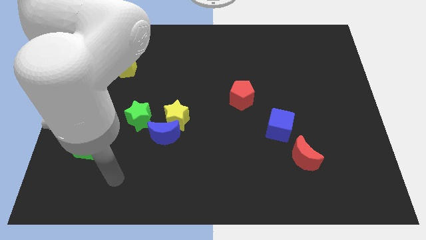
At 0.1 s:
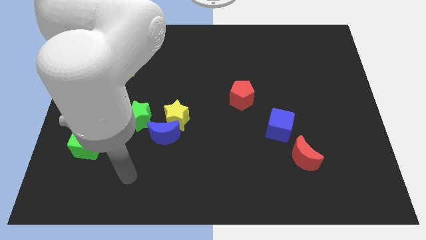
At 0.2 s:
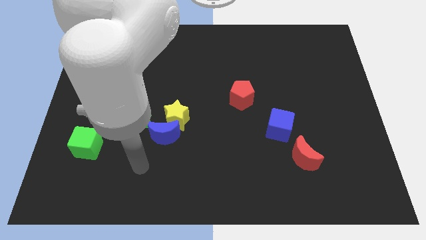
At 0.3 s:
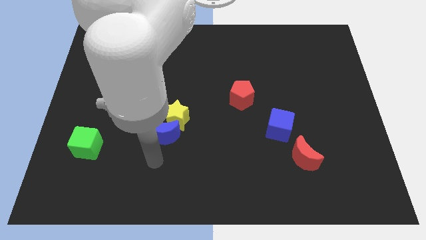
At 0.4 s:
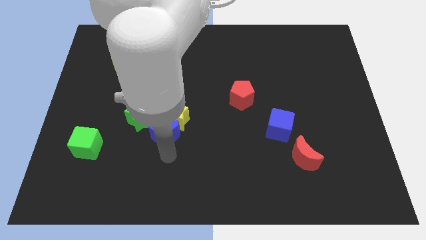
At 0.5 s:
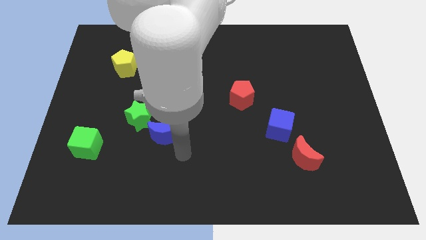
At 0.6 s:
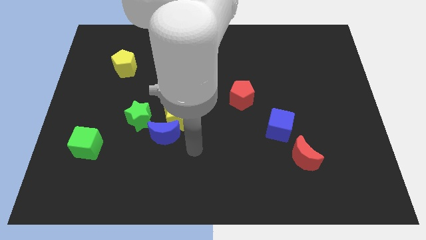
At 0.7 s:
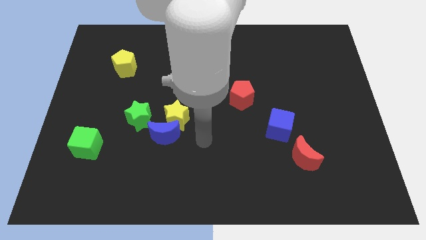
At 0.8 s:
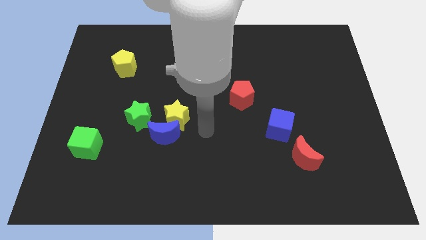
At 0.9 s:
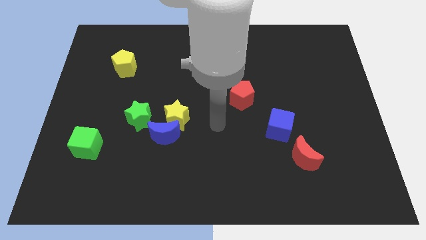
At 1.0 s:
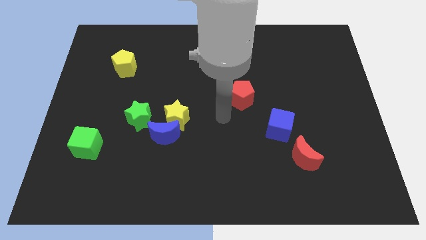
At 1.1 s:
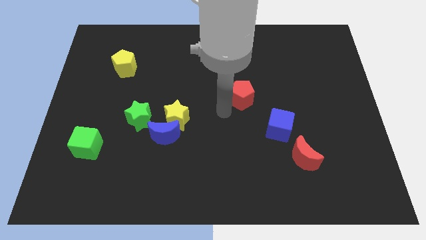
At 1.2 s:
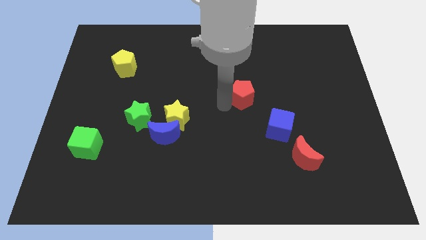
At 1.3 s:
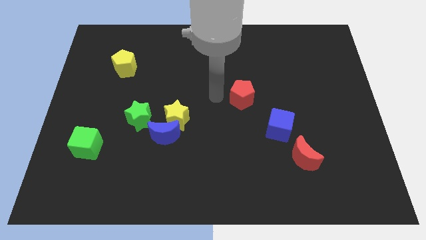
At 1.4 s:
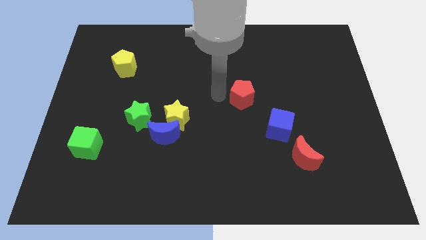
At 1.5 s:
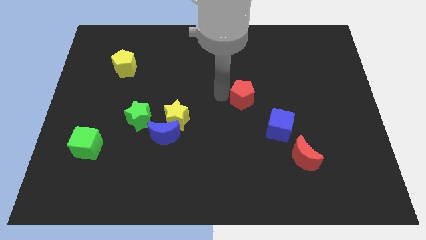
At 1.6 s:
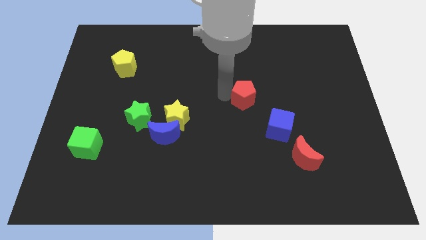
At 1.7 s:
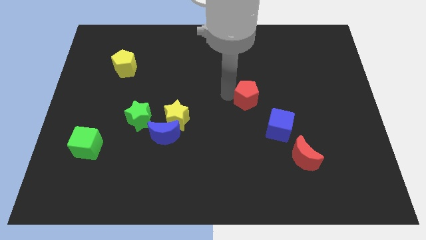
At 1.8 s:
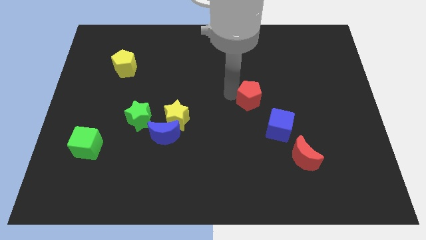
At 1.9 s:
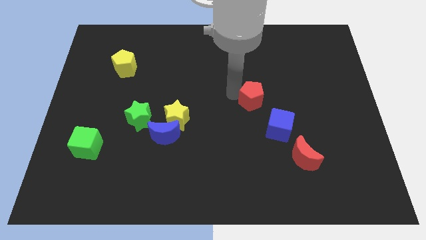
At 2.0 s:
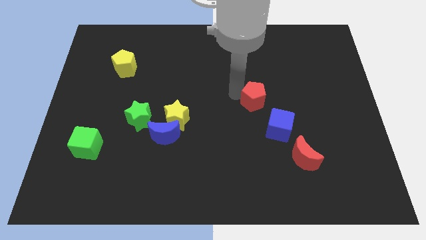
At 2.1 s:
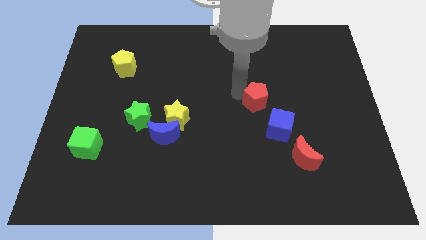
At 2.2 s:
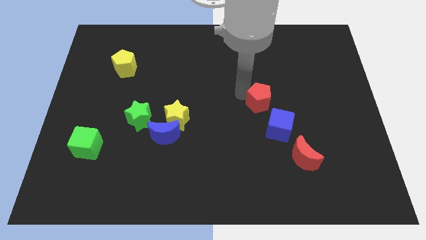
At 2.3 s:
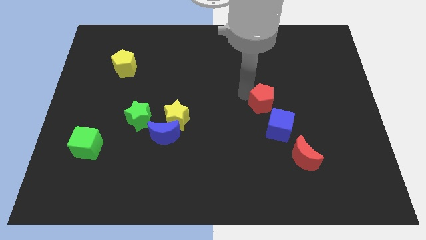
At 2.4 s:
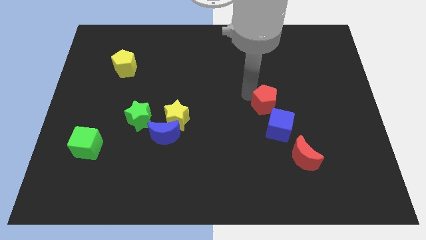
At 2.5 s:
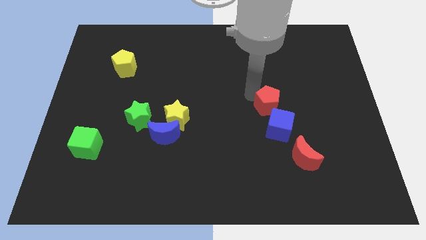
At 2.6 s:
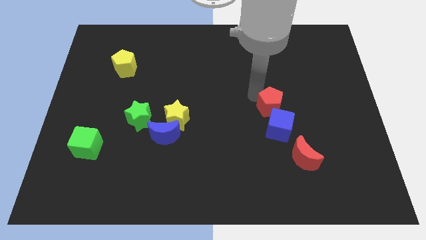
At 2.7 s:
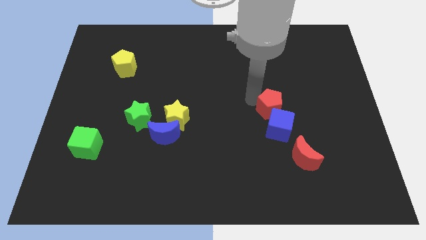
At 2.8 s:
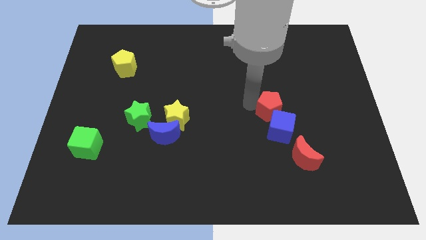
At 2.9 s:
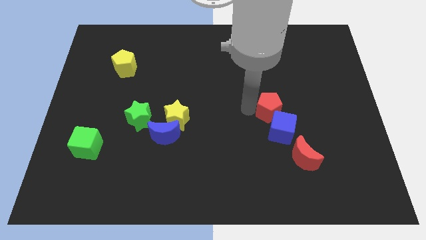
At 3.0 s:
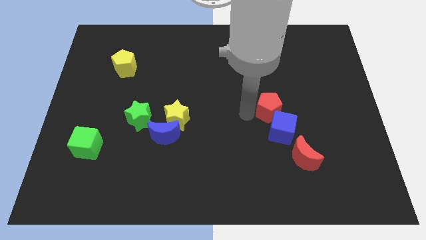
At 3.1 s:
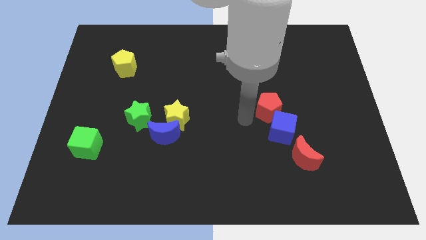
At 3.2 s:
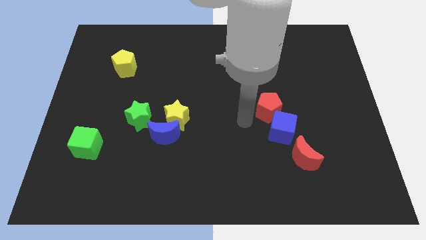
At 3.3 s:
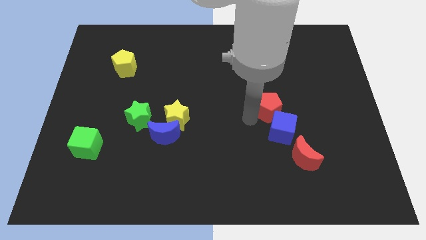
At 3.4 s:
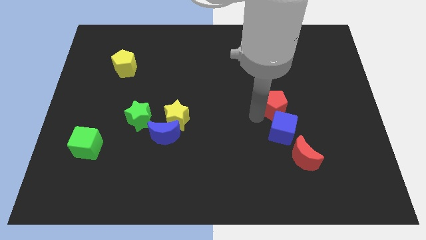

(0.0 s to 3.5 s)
slide the red pentagon slightly to the right

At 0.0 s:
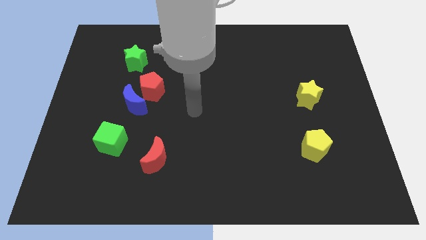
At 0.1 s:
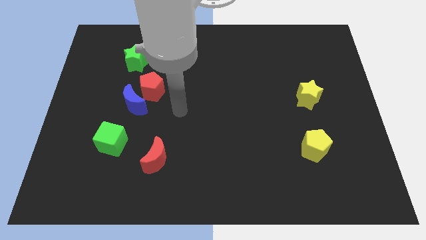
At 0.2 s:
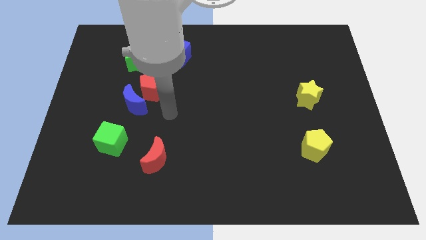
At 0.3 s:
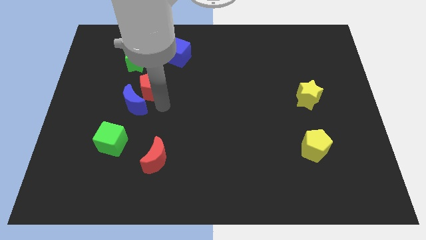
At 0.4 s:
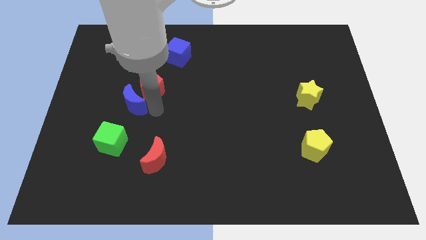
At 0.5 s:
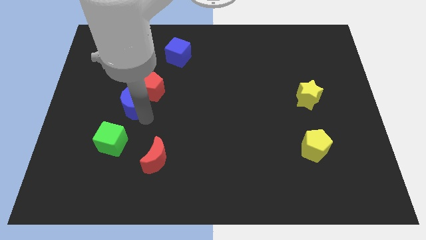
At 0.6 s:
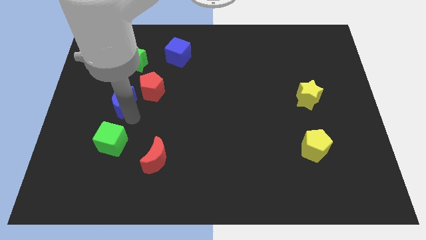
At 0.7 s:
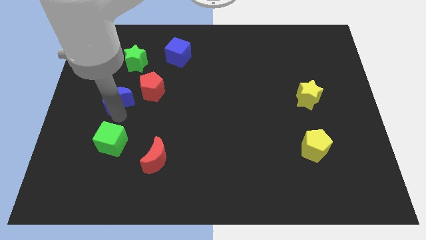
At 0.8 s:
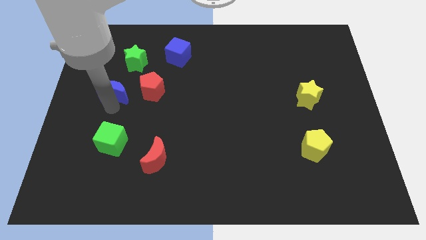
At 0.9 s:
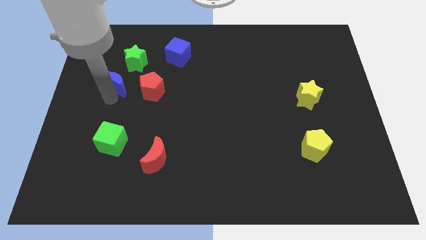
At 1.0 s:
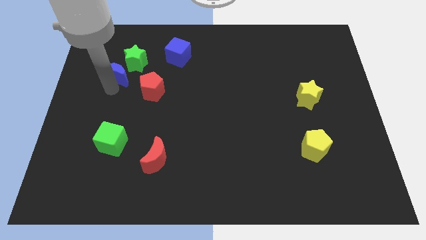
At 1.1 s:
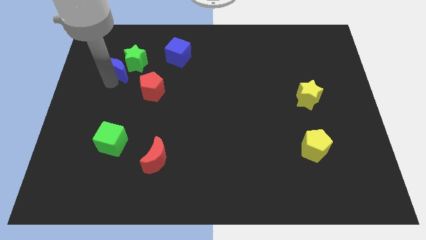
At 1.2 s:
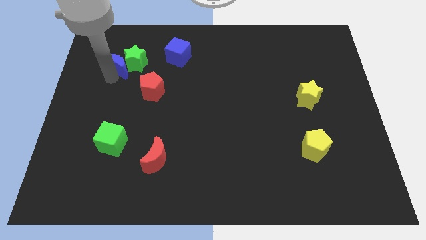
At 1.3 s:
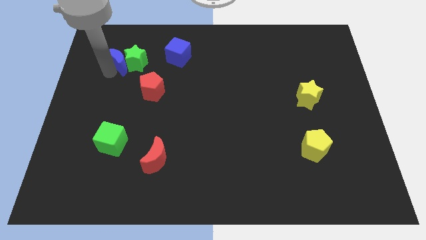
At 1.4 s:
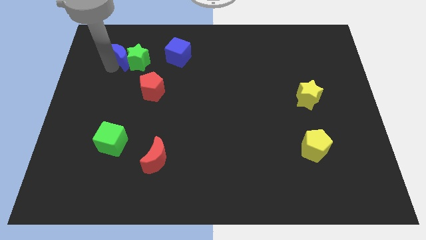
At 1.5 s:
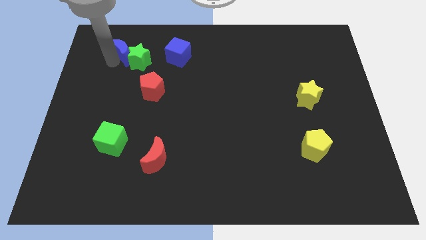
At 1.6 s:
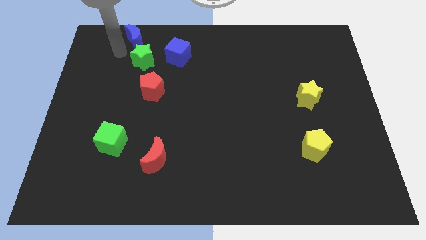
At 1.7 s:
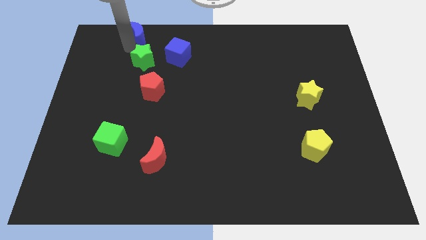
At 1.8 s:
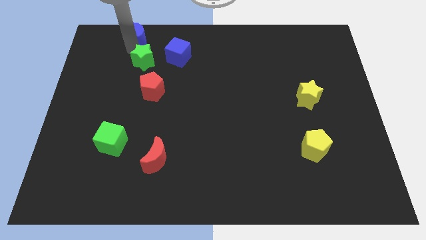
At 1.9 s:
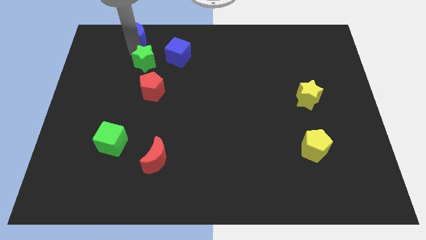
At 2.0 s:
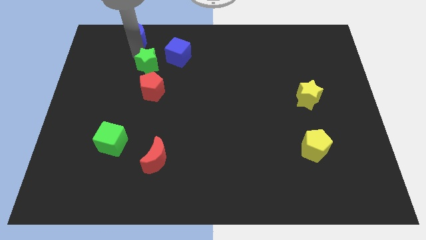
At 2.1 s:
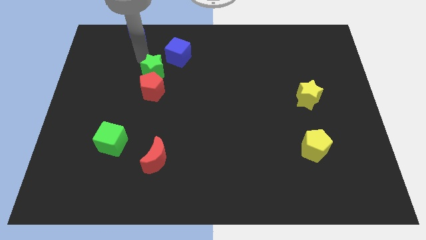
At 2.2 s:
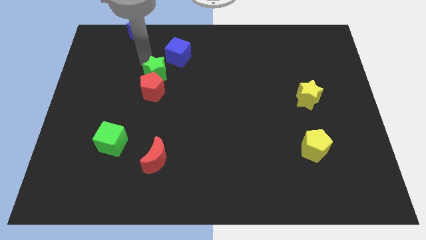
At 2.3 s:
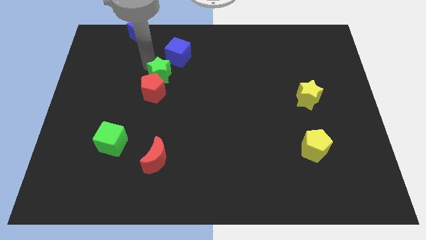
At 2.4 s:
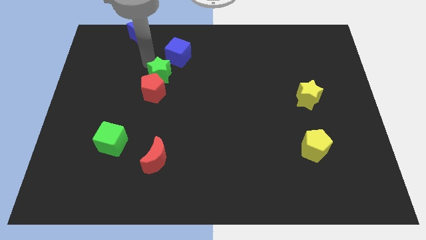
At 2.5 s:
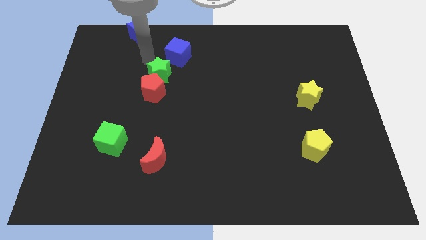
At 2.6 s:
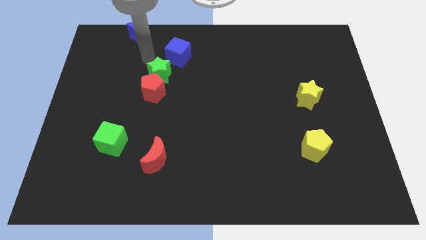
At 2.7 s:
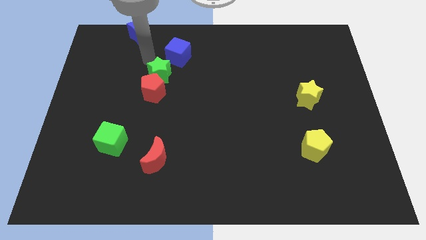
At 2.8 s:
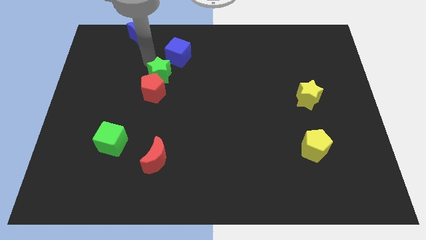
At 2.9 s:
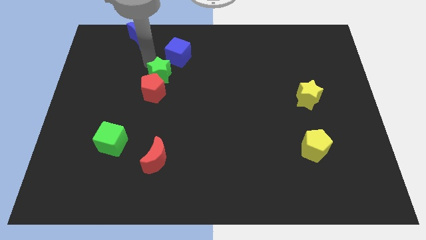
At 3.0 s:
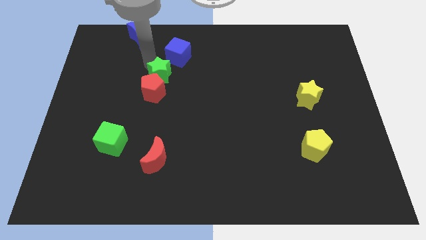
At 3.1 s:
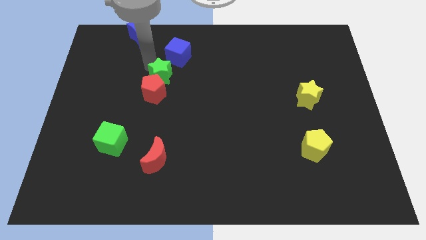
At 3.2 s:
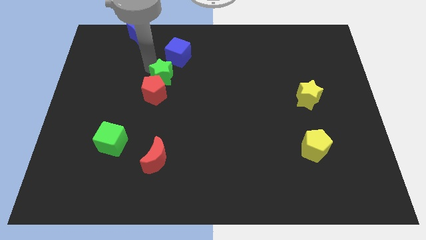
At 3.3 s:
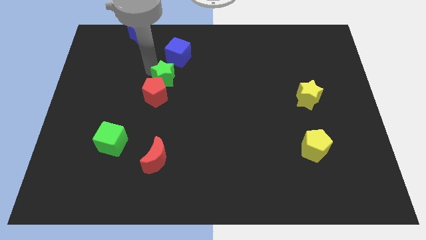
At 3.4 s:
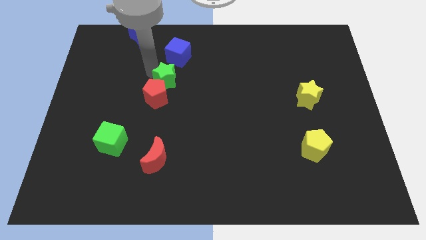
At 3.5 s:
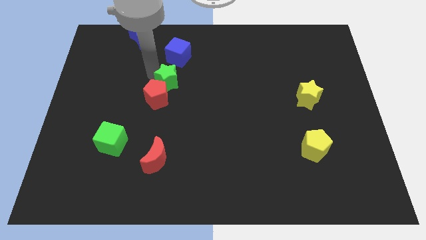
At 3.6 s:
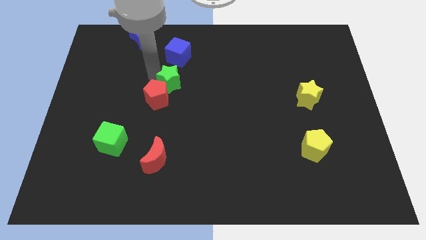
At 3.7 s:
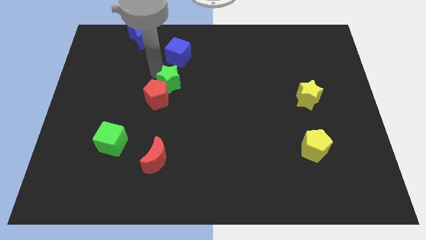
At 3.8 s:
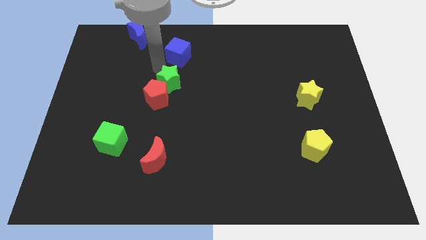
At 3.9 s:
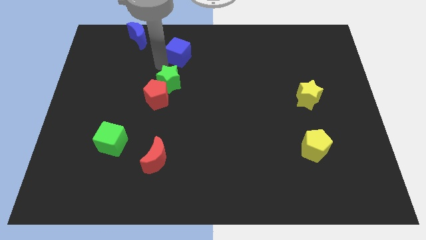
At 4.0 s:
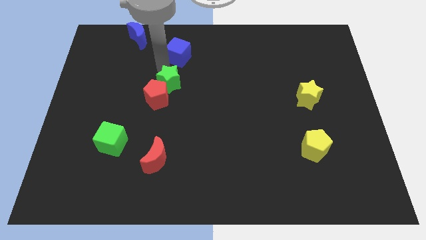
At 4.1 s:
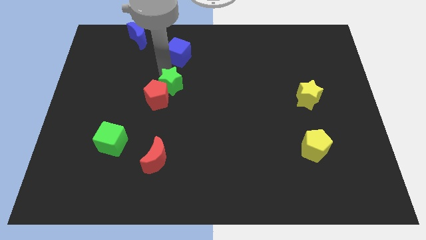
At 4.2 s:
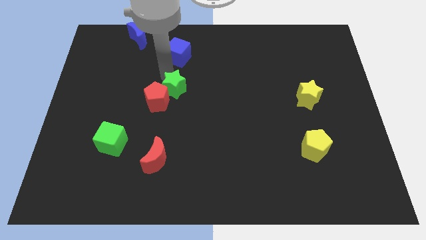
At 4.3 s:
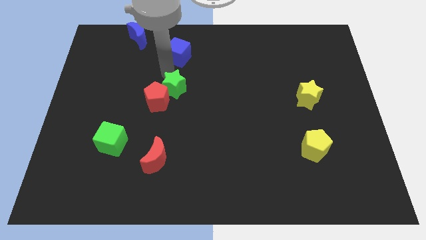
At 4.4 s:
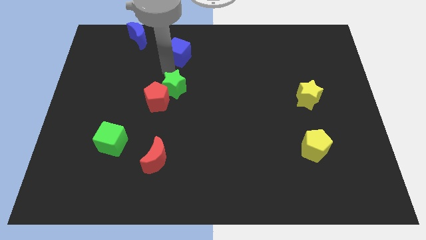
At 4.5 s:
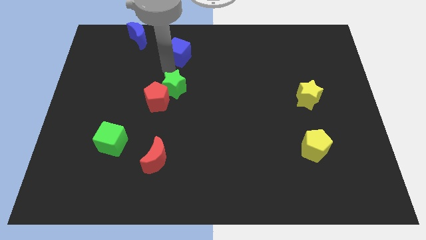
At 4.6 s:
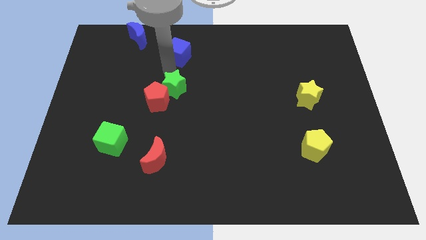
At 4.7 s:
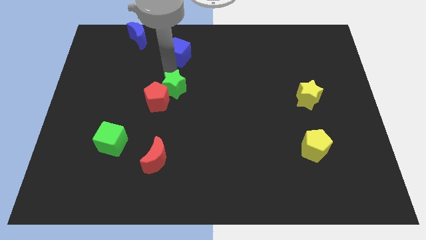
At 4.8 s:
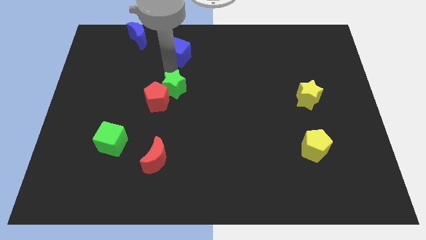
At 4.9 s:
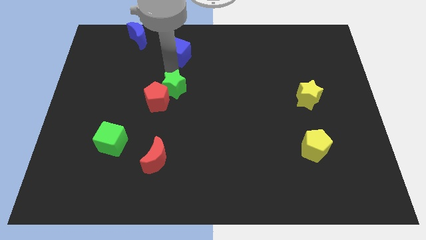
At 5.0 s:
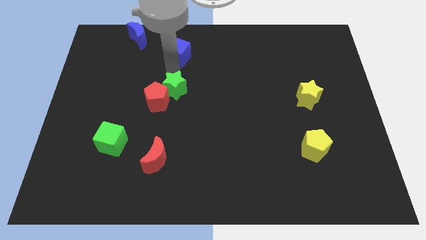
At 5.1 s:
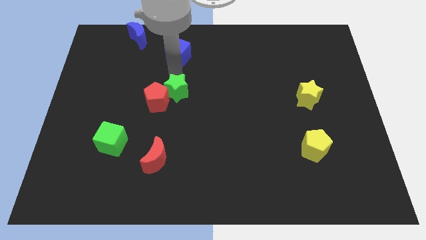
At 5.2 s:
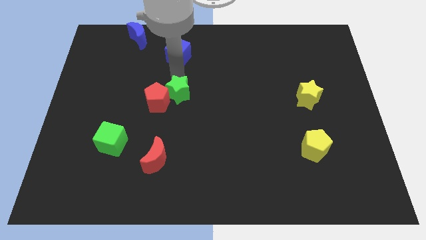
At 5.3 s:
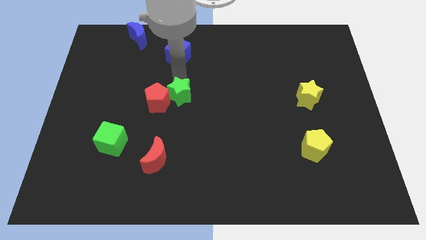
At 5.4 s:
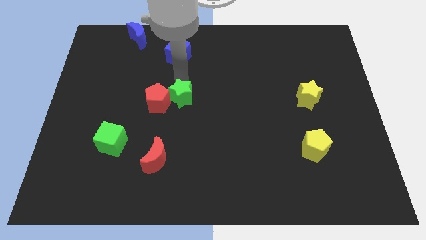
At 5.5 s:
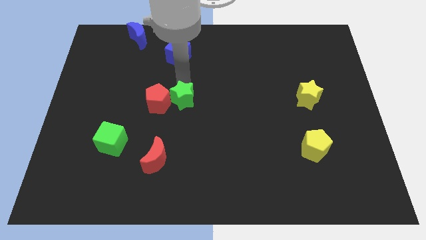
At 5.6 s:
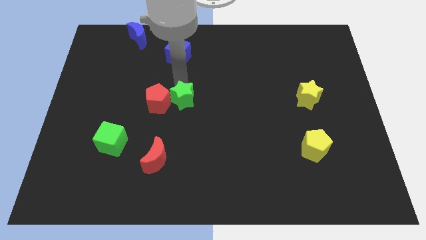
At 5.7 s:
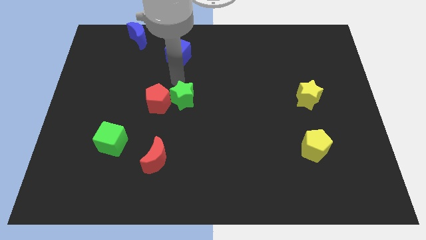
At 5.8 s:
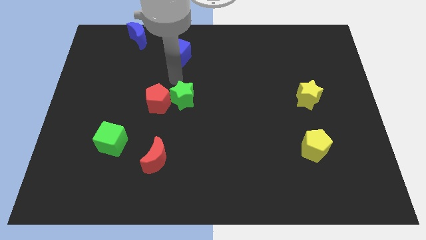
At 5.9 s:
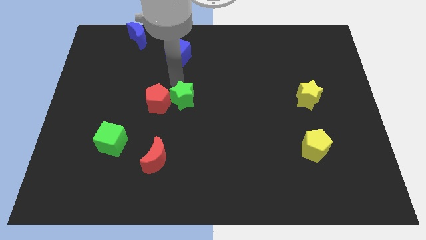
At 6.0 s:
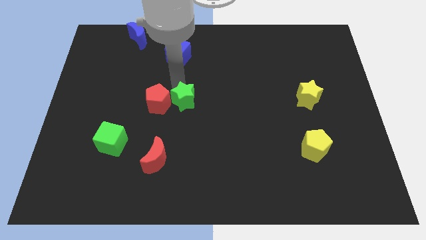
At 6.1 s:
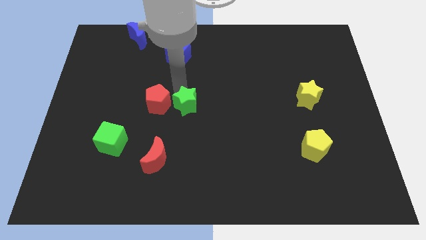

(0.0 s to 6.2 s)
move the green star down and right diagonally
